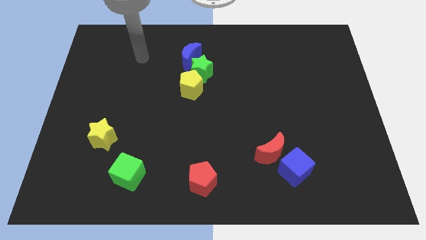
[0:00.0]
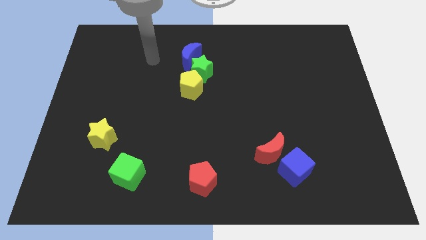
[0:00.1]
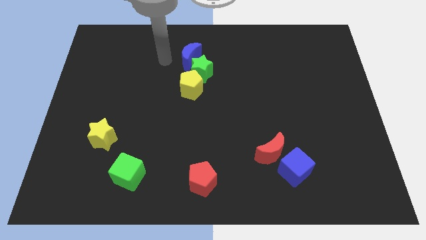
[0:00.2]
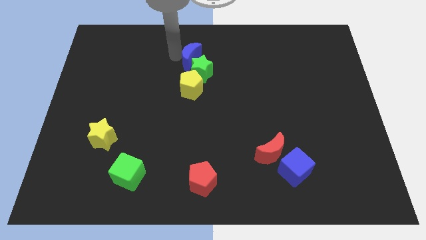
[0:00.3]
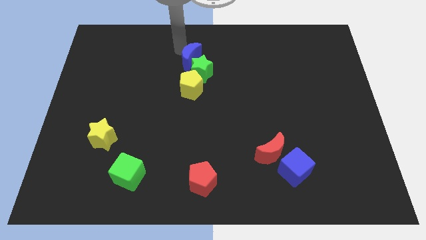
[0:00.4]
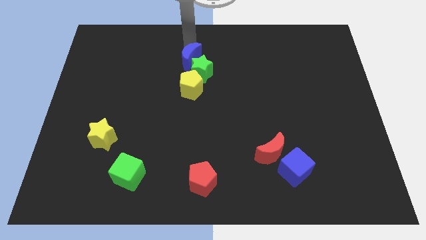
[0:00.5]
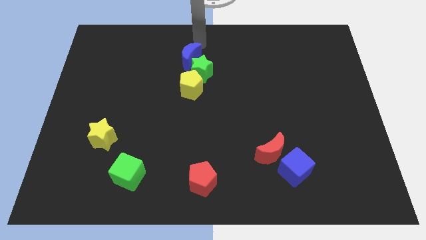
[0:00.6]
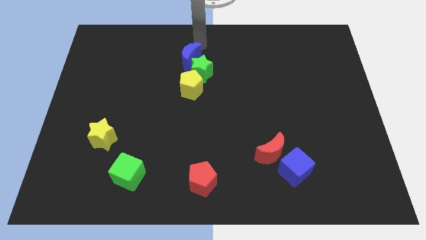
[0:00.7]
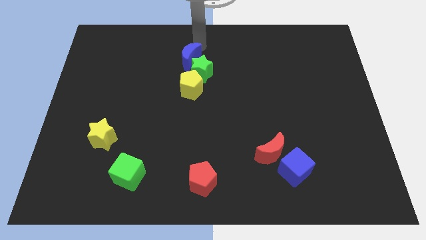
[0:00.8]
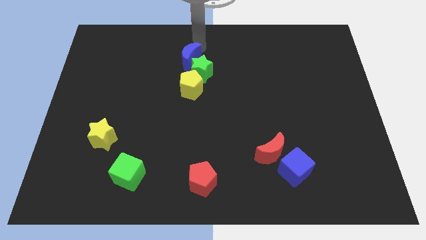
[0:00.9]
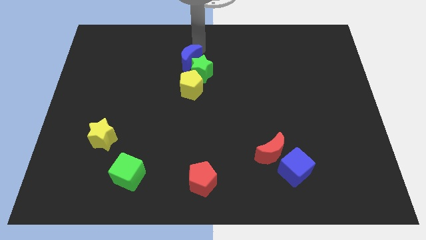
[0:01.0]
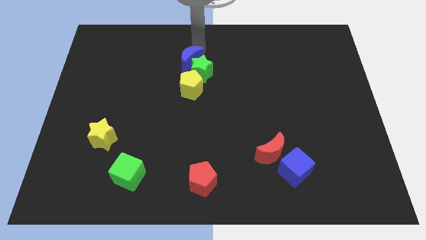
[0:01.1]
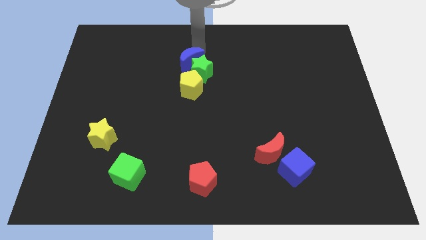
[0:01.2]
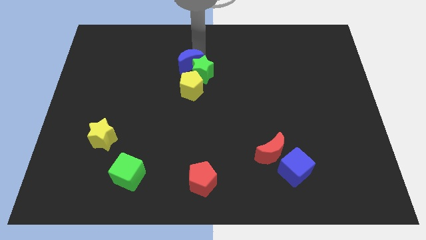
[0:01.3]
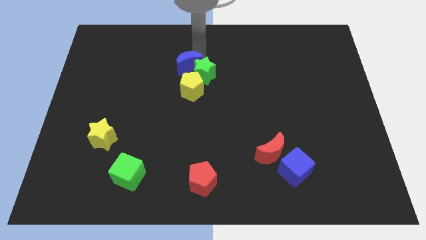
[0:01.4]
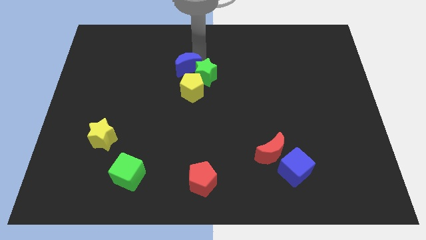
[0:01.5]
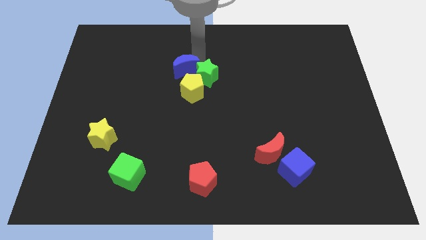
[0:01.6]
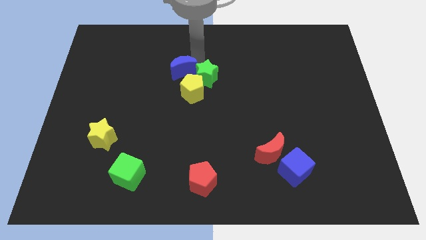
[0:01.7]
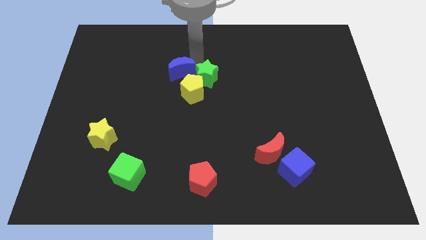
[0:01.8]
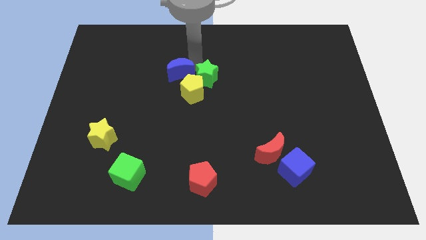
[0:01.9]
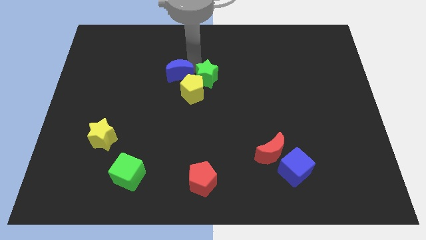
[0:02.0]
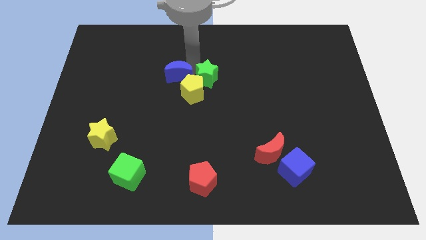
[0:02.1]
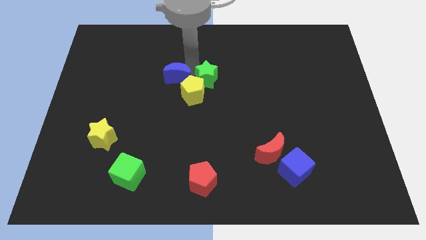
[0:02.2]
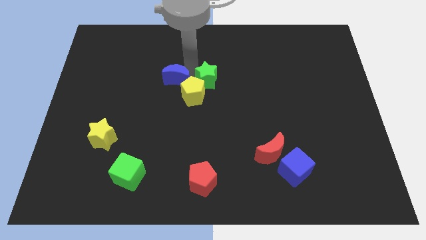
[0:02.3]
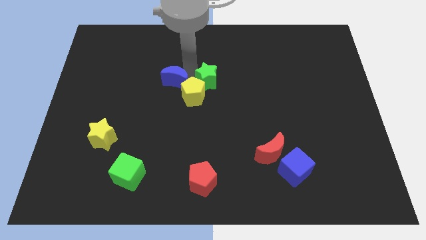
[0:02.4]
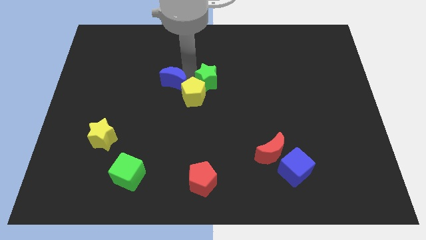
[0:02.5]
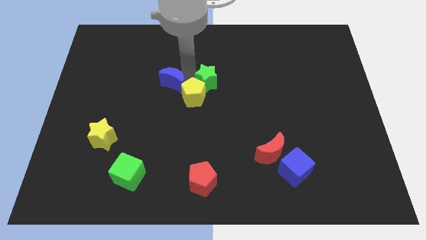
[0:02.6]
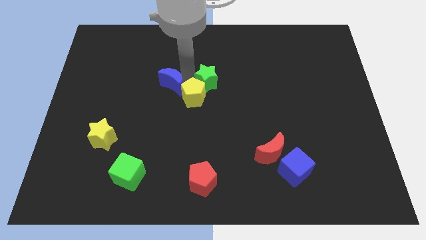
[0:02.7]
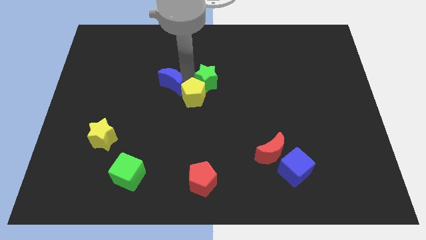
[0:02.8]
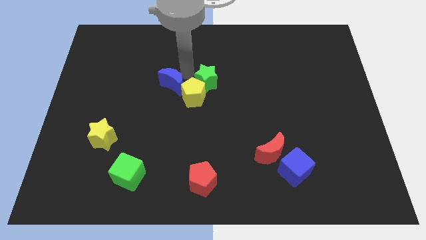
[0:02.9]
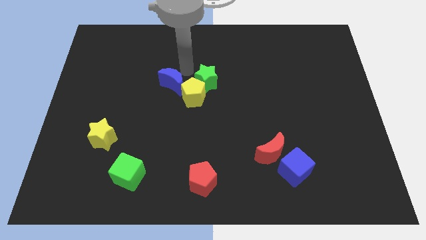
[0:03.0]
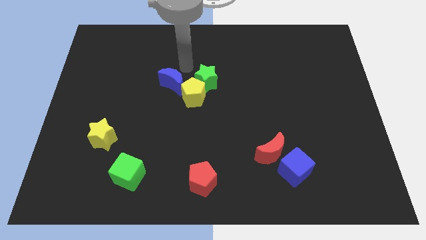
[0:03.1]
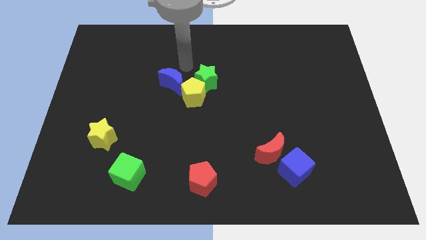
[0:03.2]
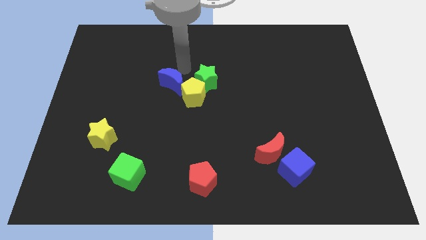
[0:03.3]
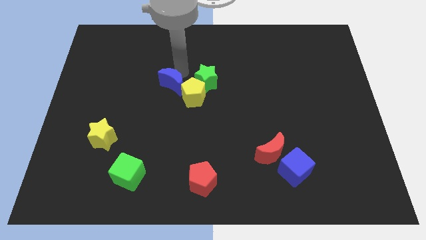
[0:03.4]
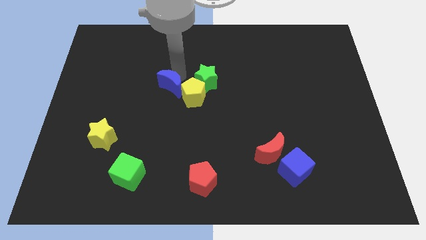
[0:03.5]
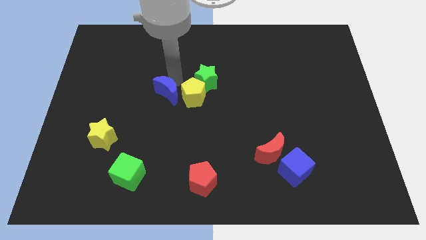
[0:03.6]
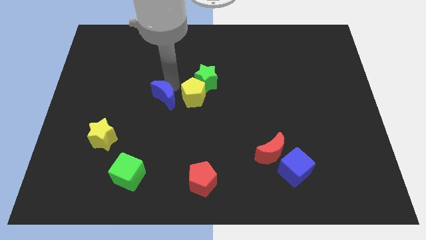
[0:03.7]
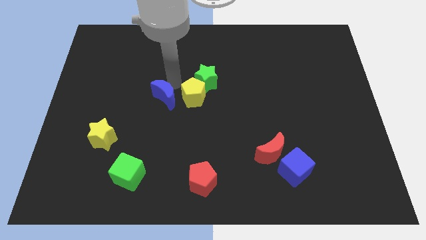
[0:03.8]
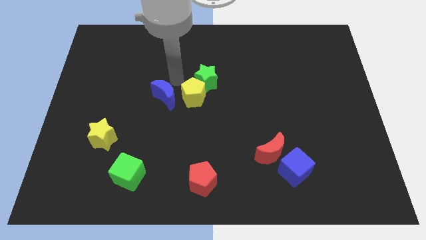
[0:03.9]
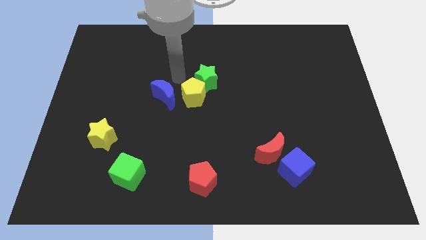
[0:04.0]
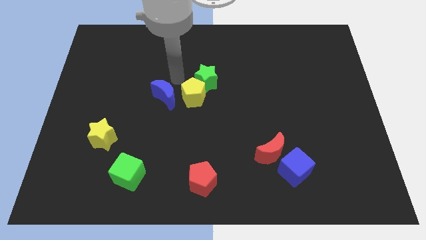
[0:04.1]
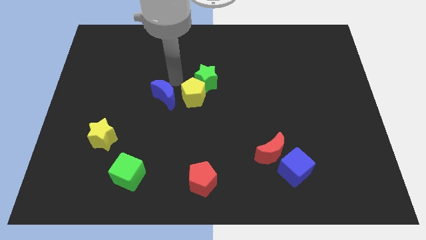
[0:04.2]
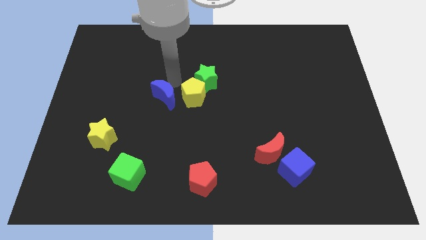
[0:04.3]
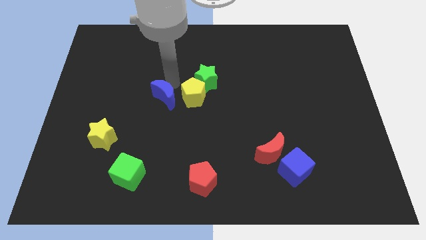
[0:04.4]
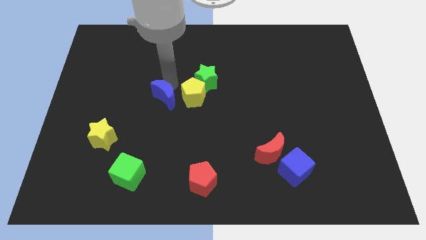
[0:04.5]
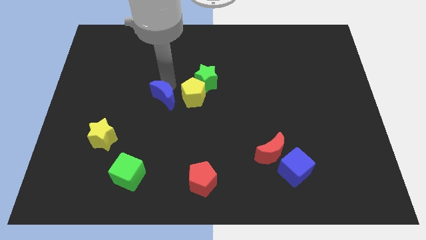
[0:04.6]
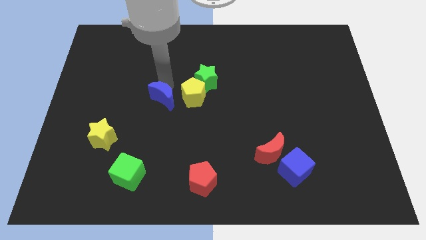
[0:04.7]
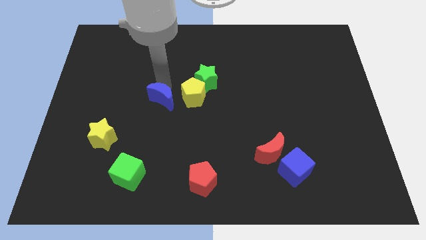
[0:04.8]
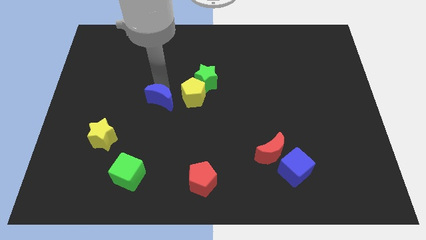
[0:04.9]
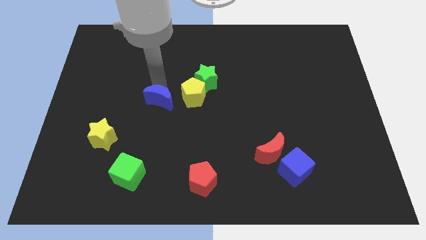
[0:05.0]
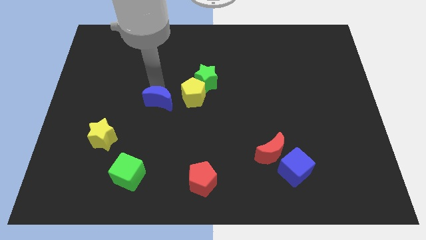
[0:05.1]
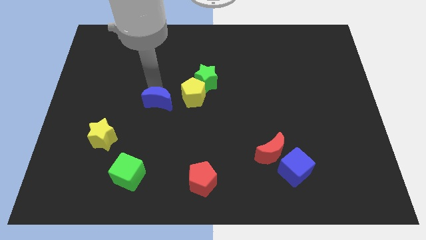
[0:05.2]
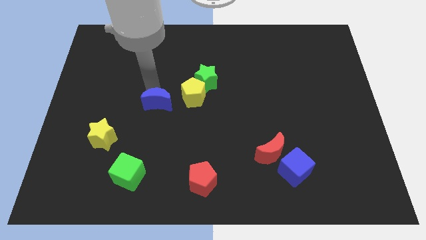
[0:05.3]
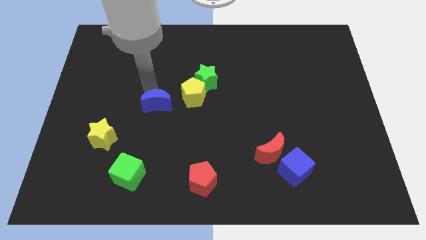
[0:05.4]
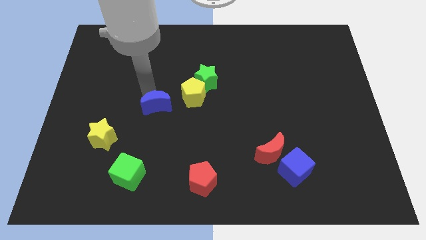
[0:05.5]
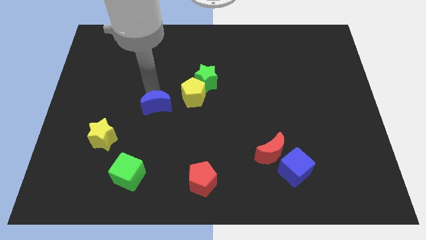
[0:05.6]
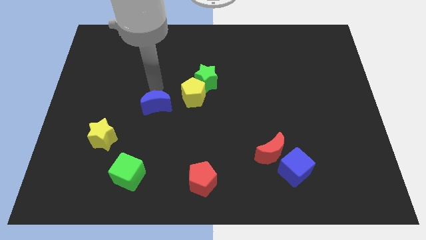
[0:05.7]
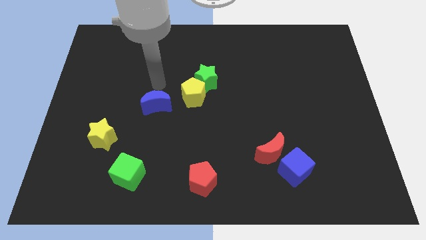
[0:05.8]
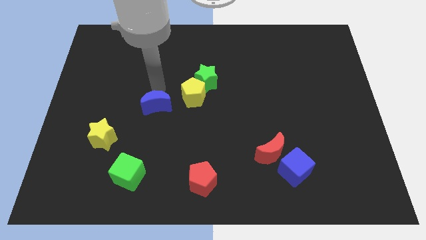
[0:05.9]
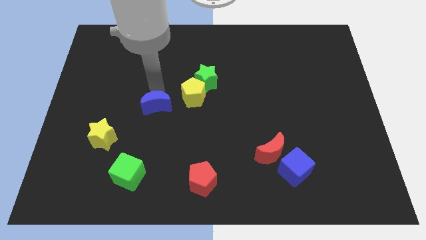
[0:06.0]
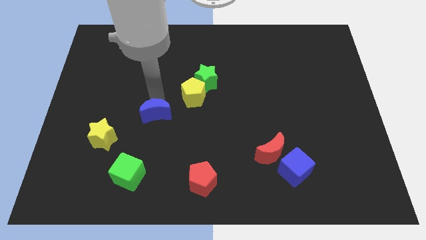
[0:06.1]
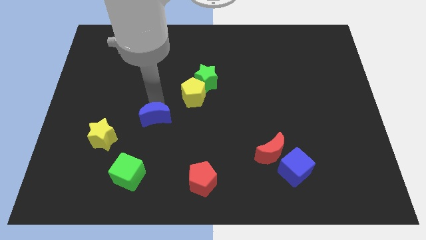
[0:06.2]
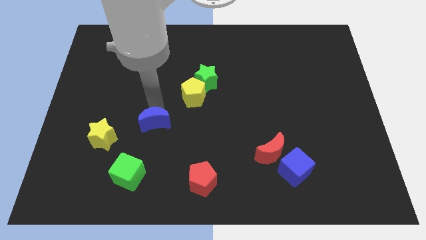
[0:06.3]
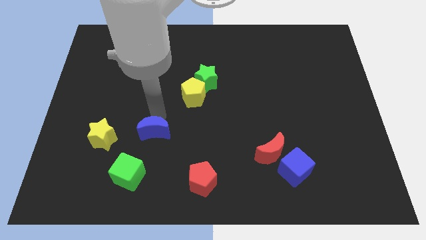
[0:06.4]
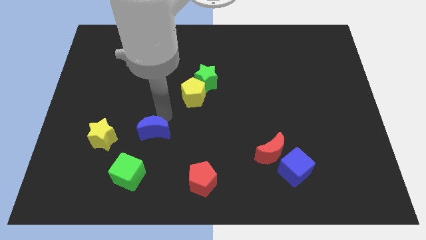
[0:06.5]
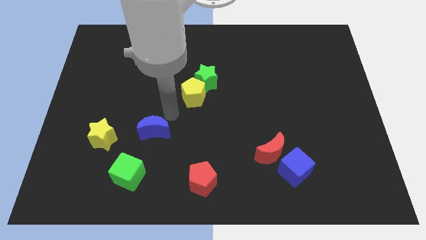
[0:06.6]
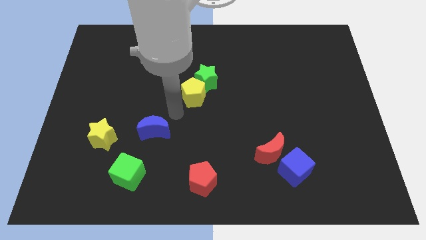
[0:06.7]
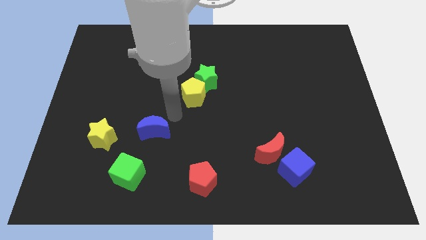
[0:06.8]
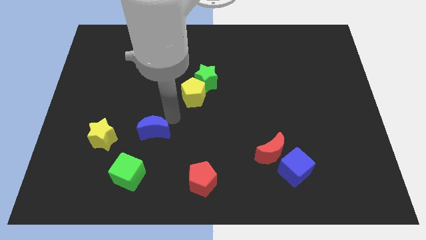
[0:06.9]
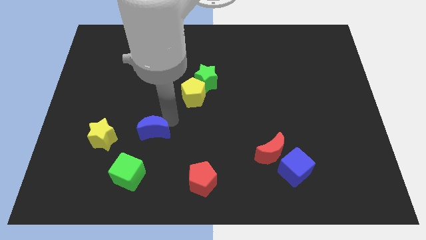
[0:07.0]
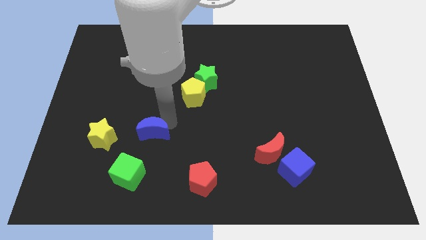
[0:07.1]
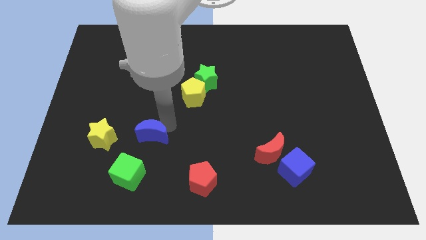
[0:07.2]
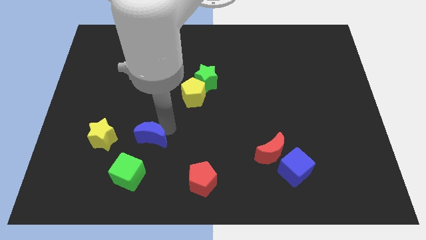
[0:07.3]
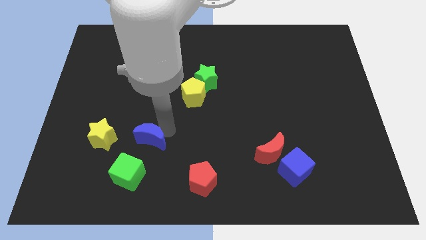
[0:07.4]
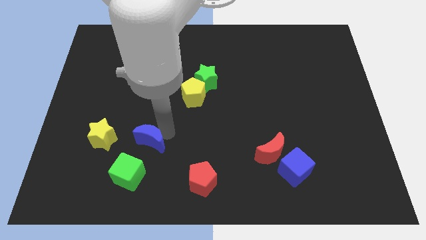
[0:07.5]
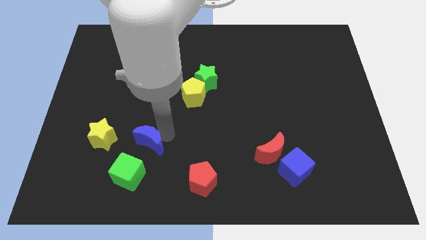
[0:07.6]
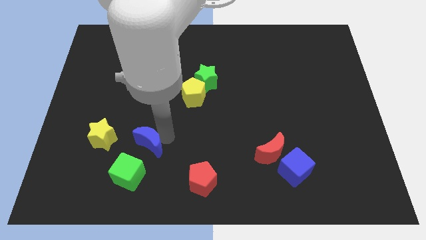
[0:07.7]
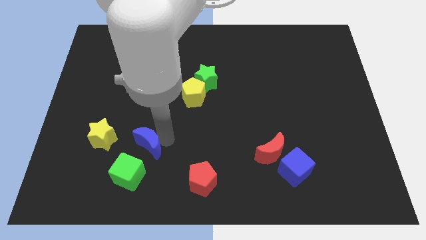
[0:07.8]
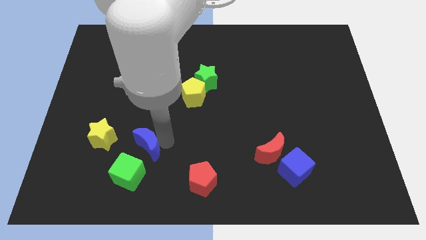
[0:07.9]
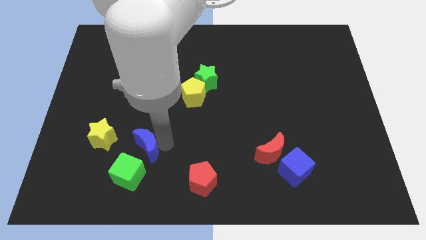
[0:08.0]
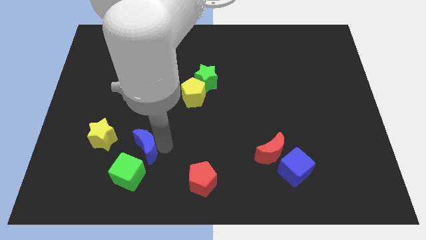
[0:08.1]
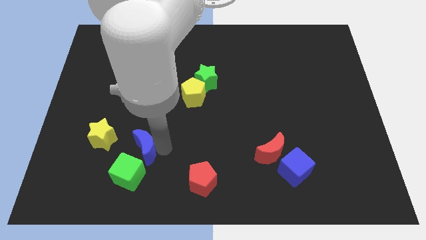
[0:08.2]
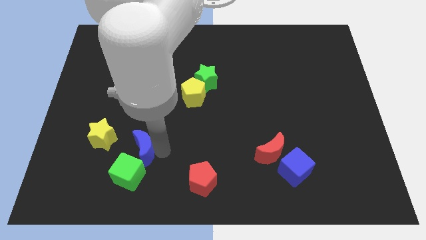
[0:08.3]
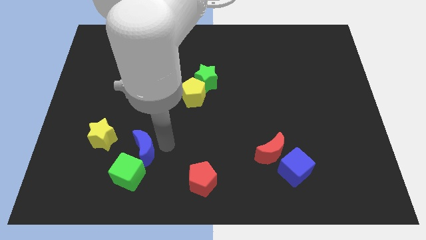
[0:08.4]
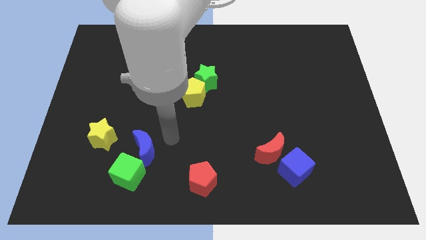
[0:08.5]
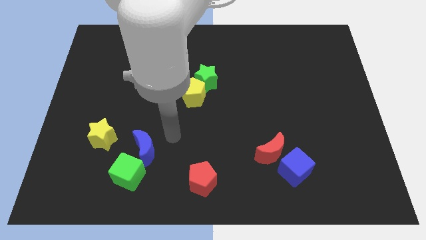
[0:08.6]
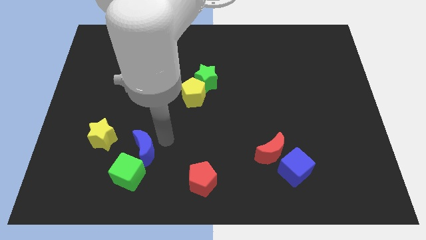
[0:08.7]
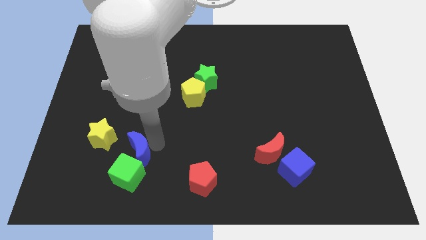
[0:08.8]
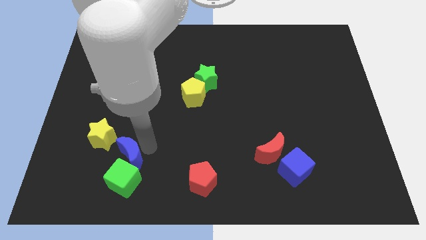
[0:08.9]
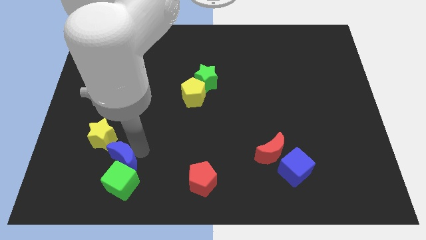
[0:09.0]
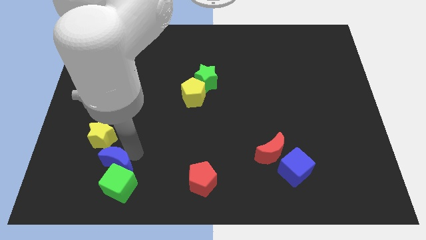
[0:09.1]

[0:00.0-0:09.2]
move the blue moon below the yellow star
